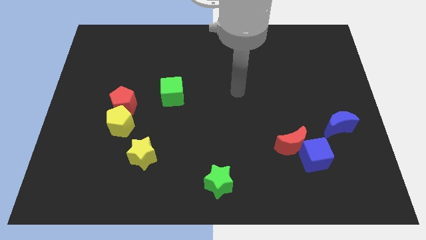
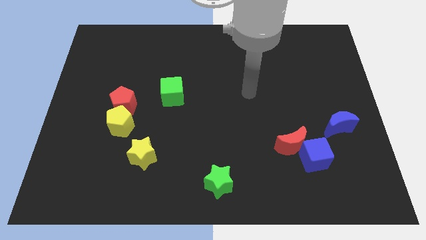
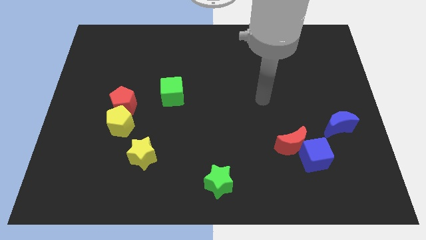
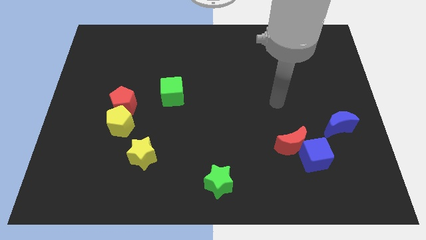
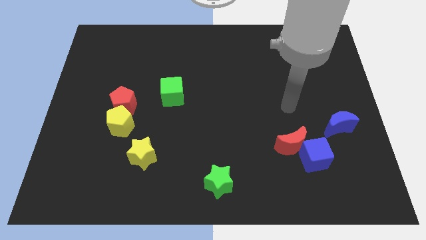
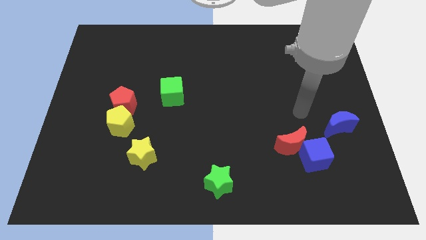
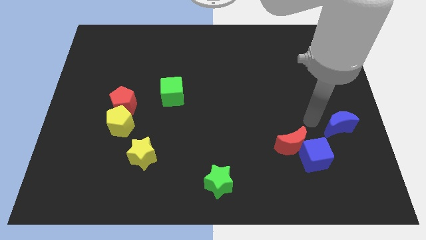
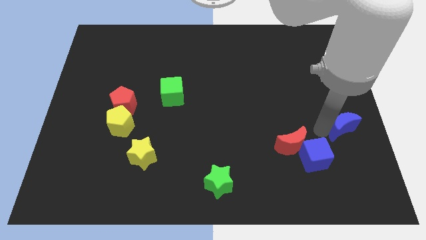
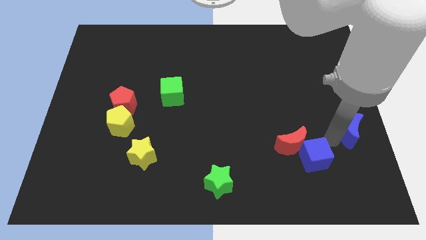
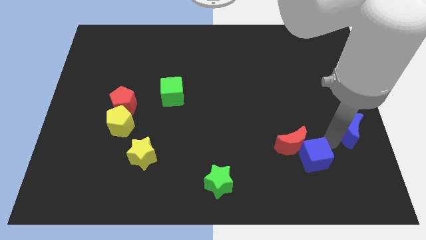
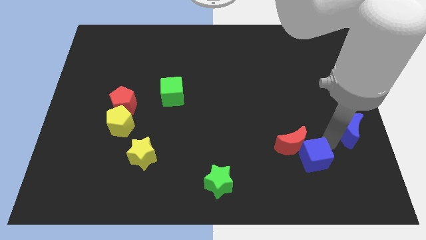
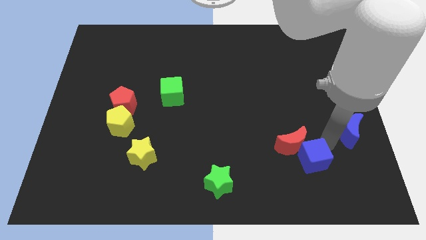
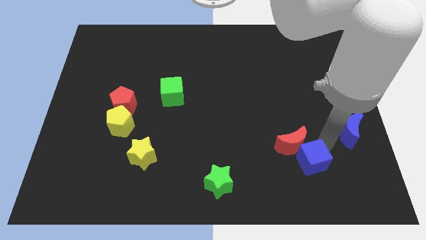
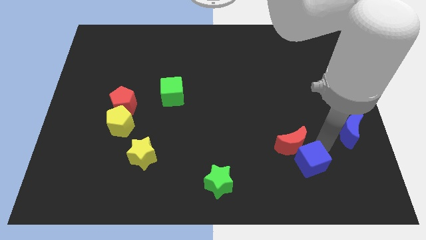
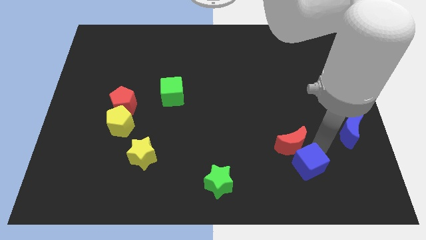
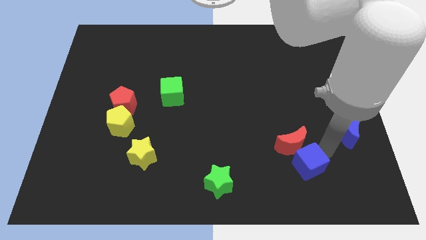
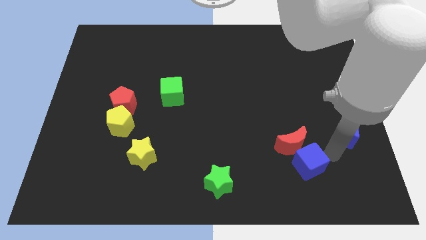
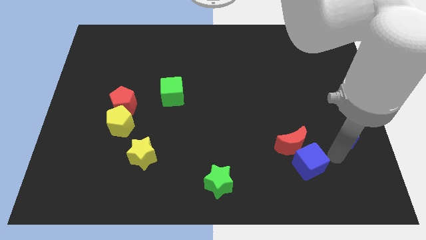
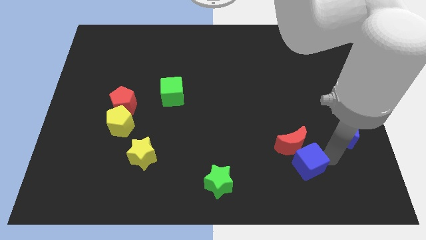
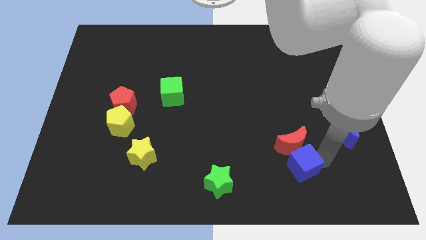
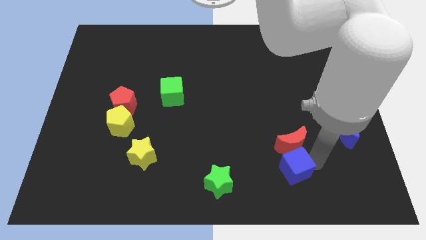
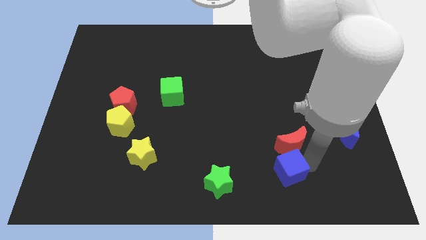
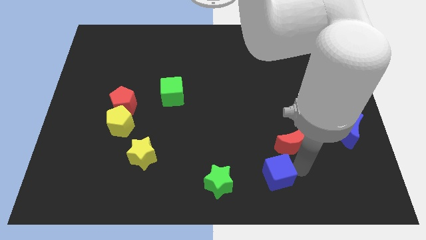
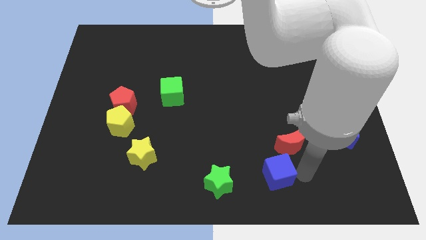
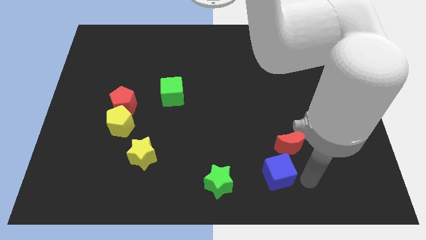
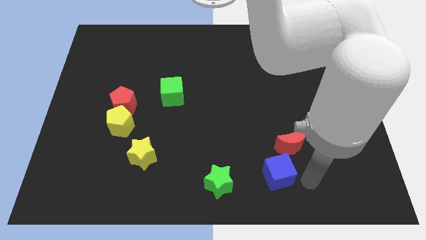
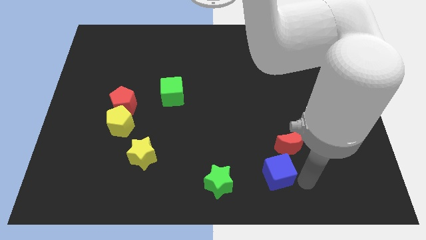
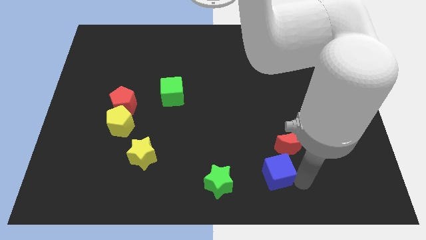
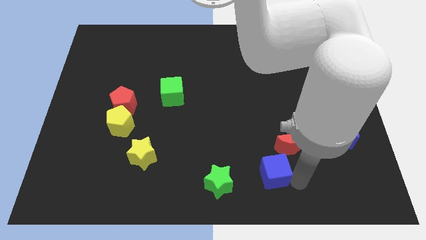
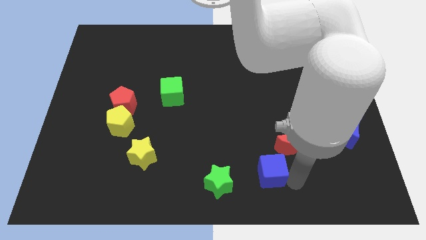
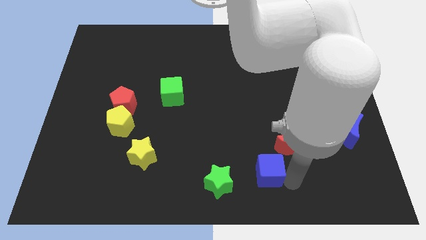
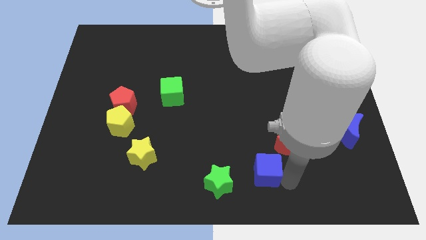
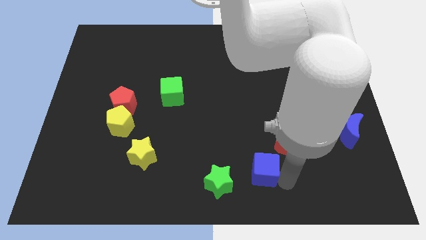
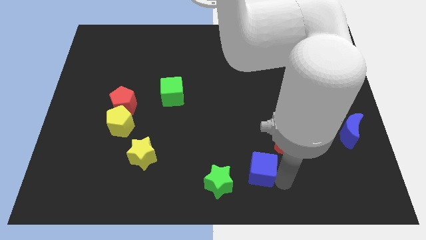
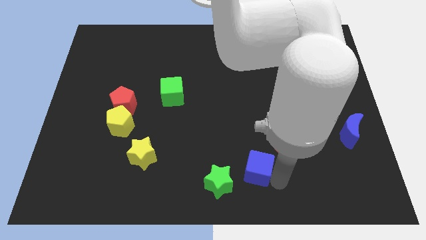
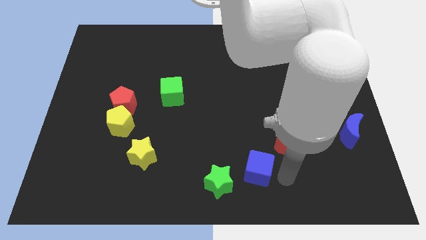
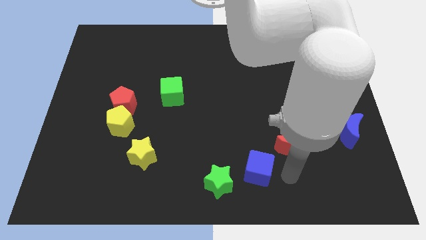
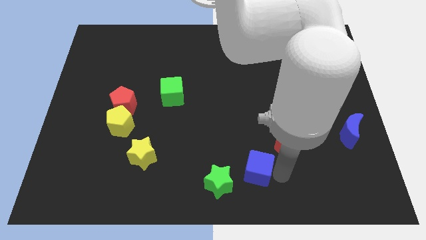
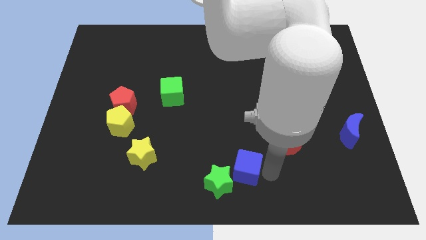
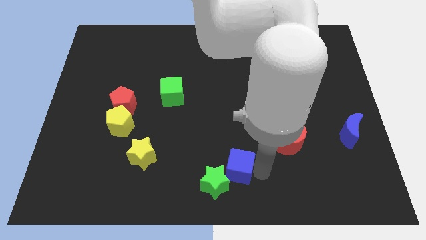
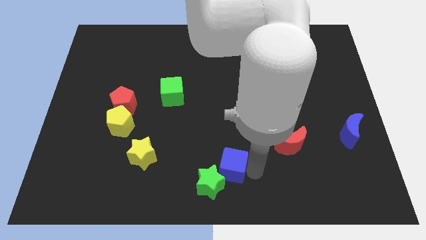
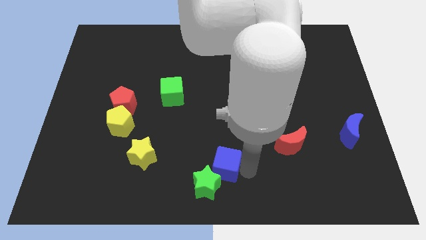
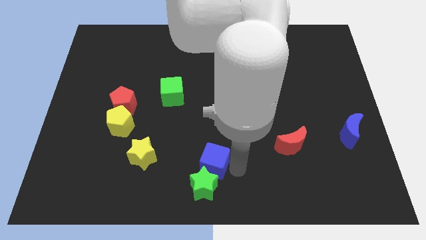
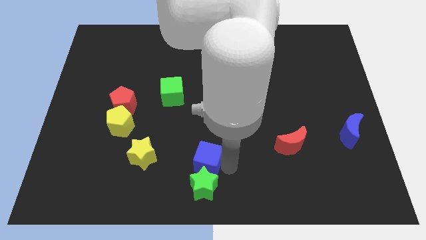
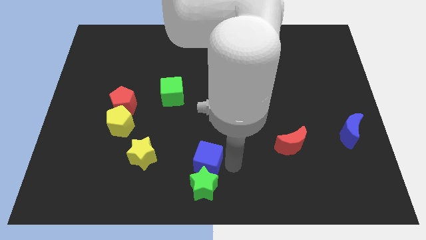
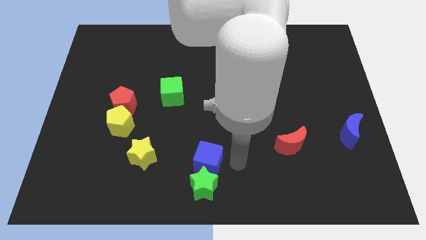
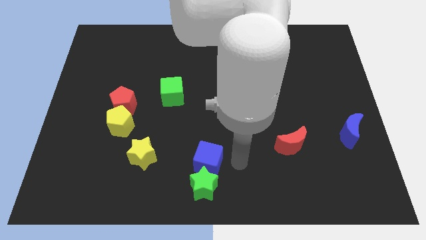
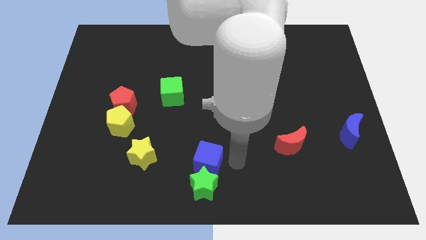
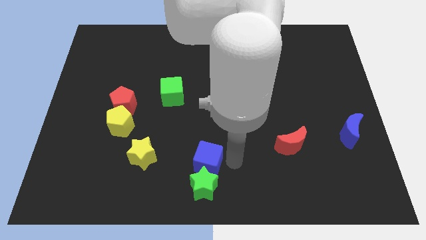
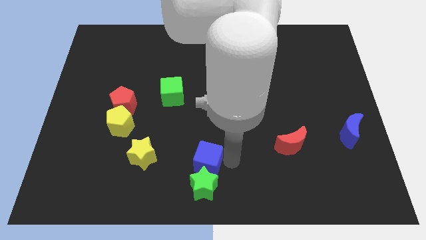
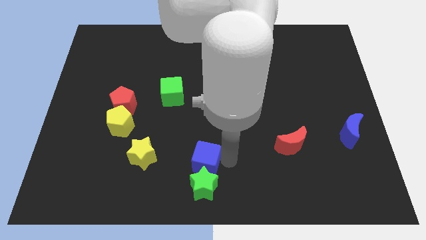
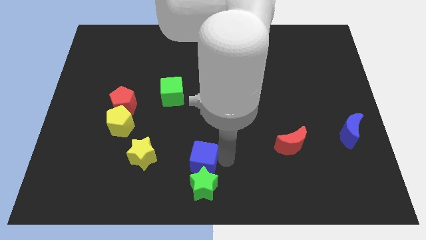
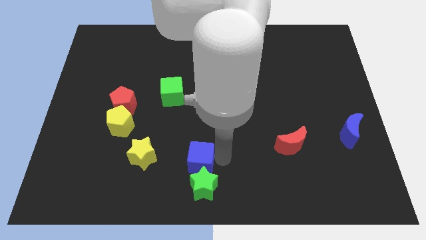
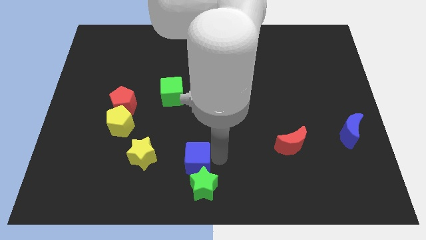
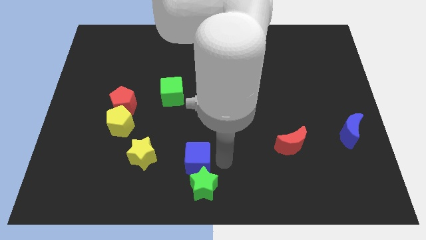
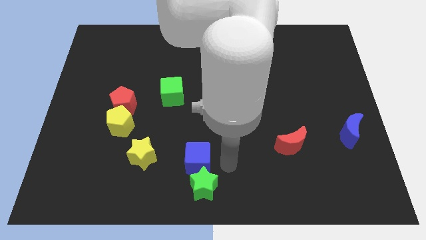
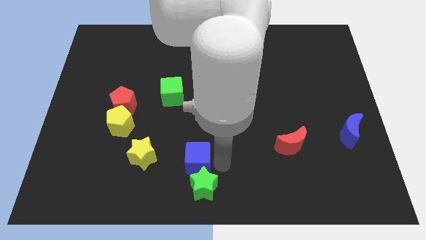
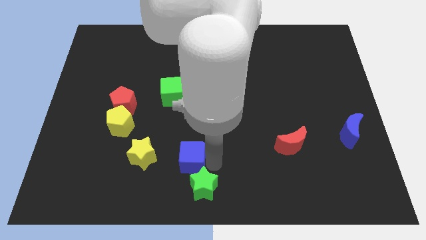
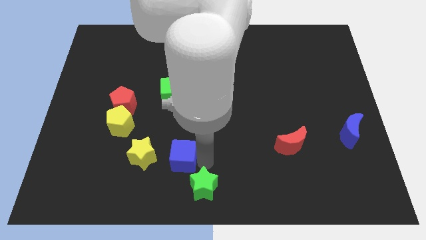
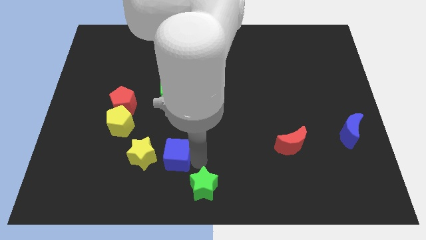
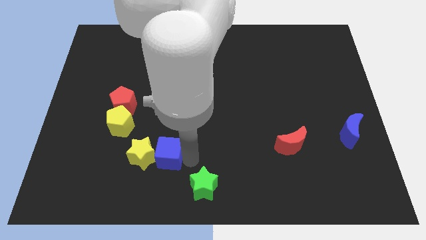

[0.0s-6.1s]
put the blue cube to the yellow star
